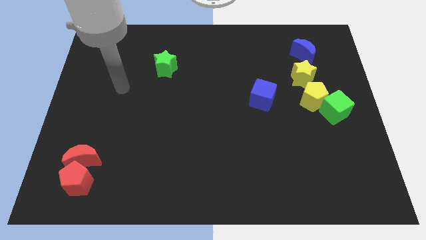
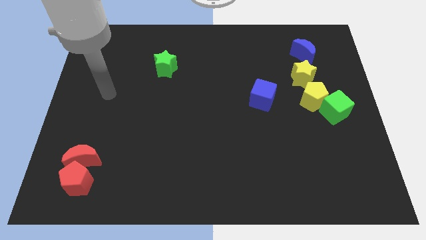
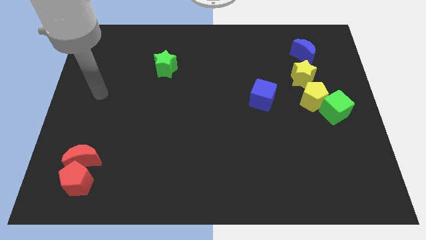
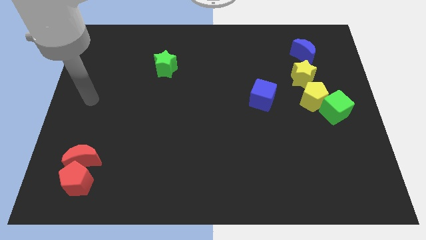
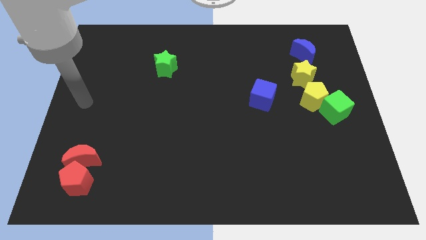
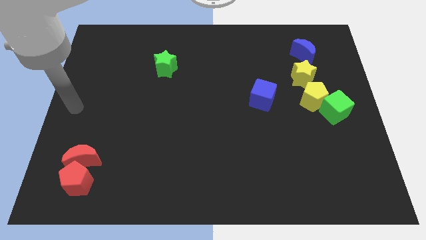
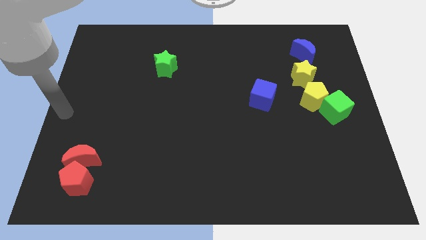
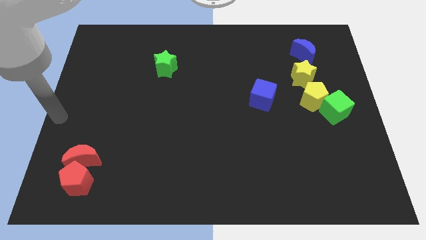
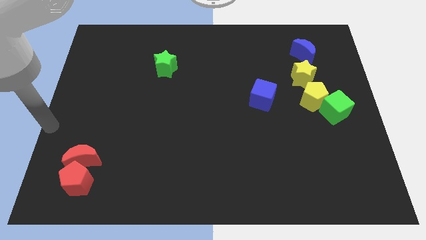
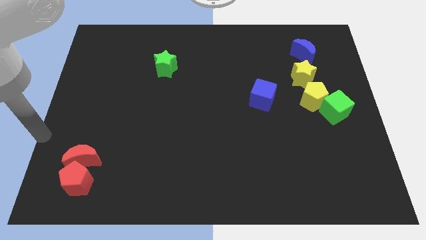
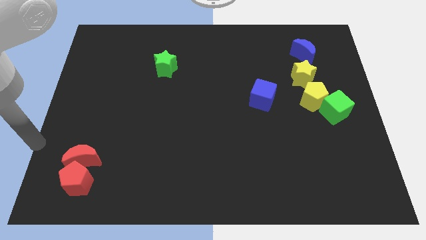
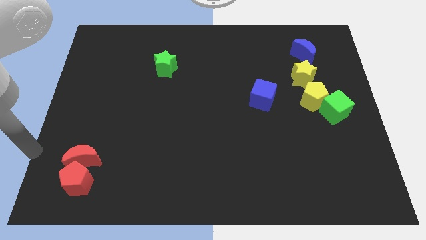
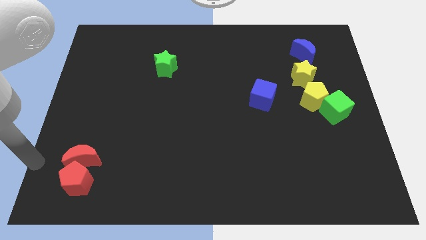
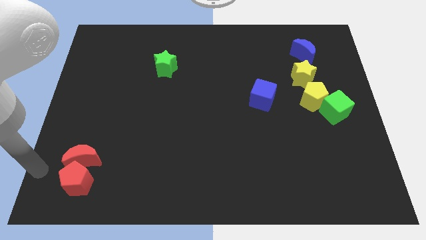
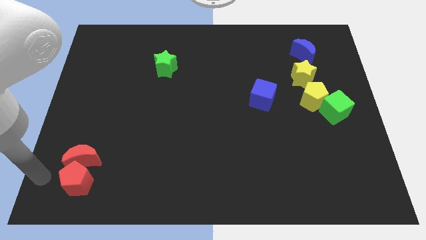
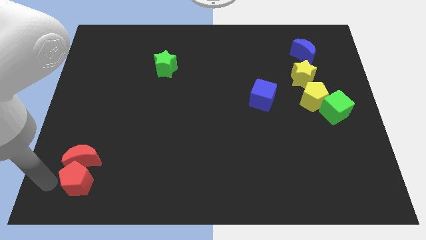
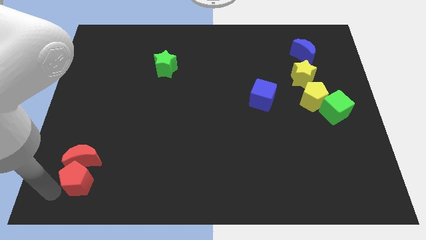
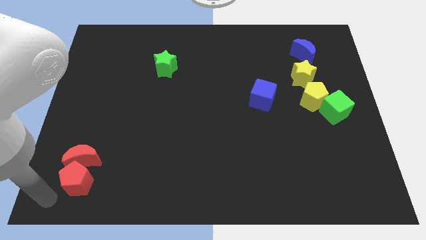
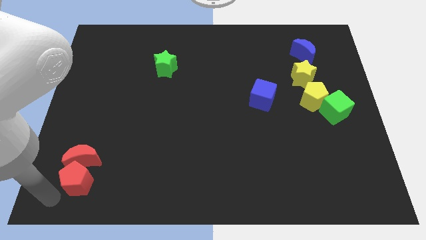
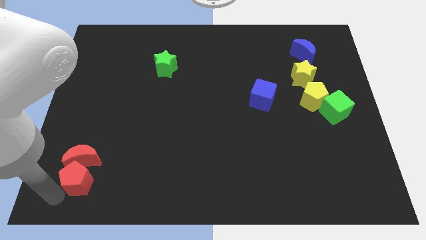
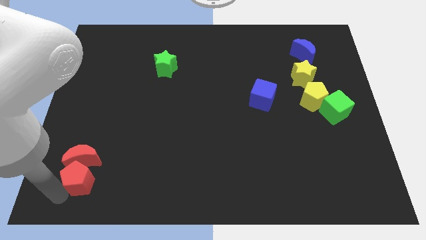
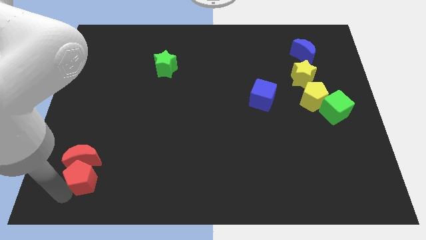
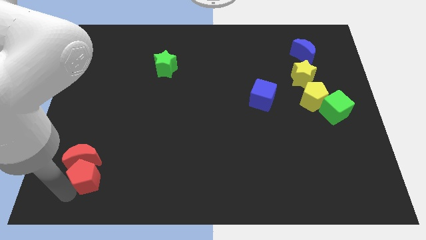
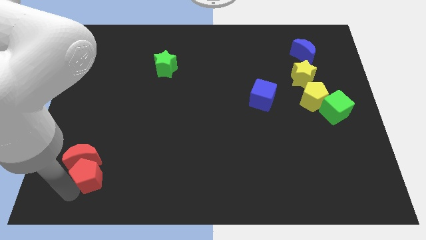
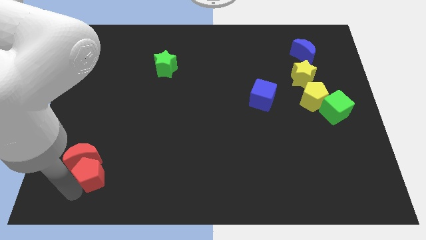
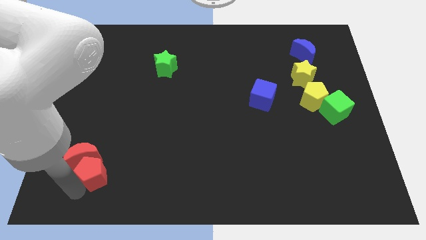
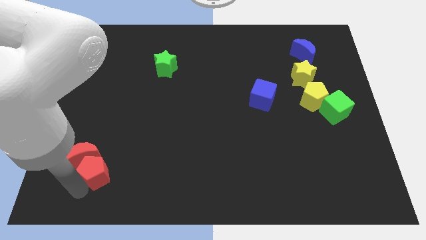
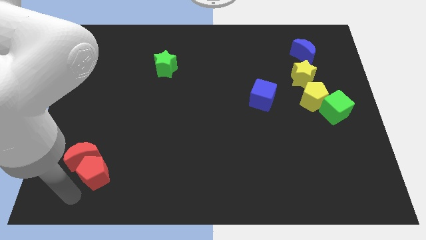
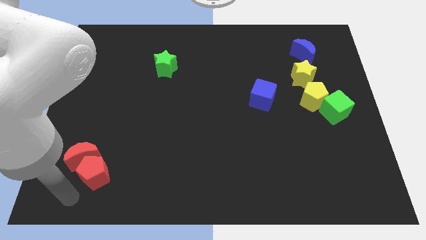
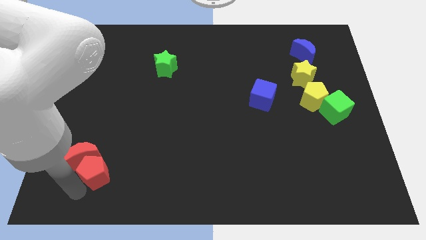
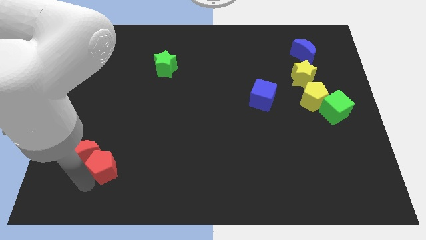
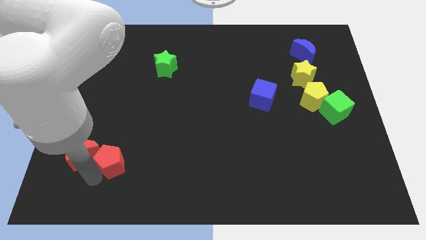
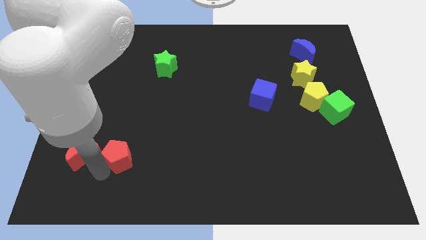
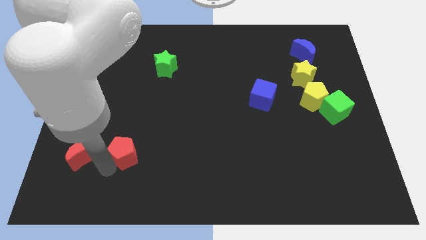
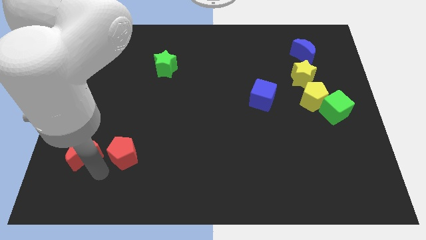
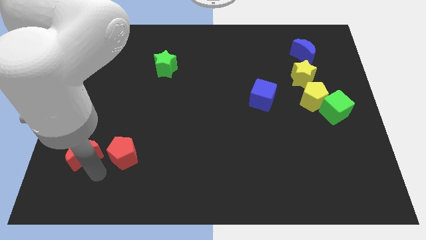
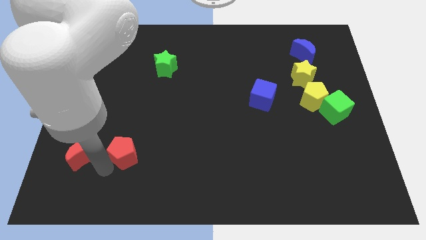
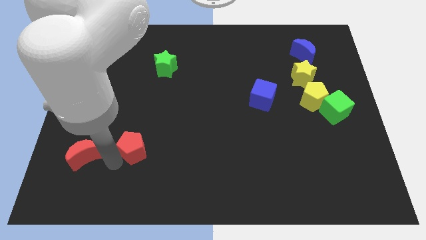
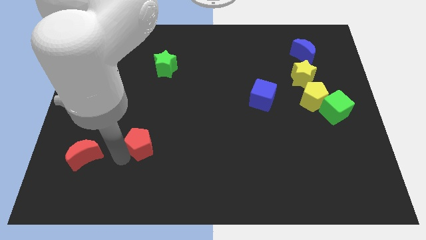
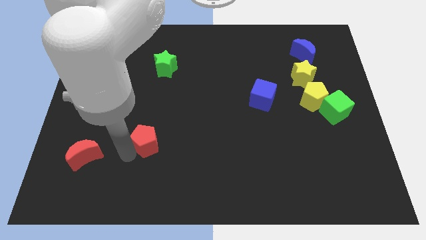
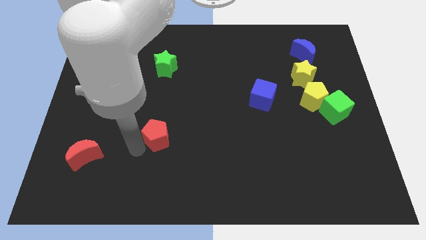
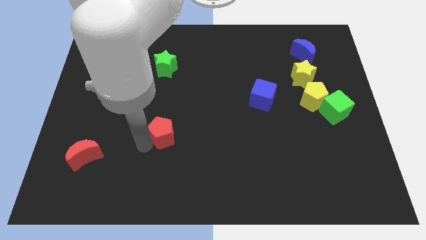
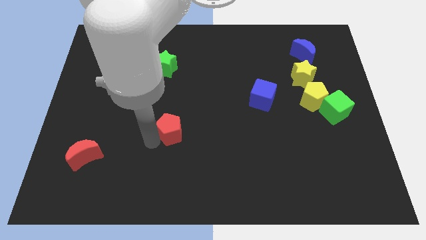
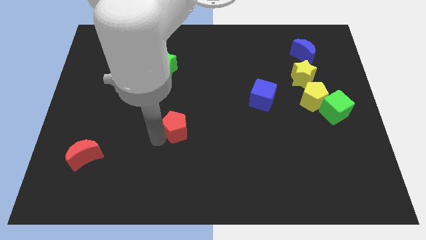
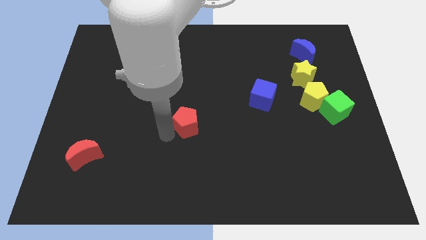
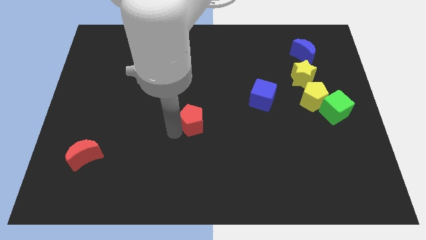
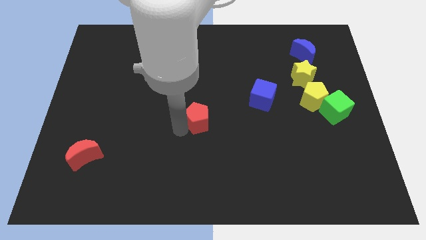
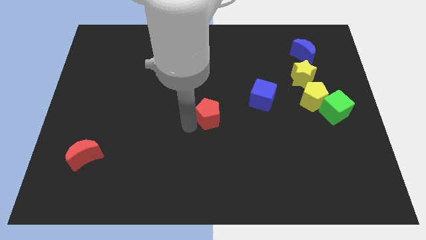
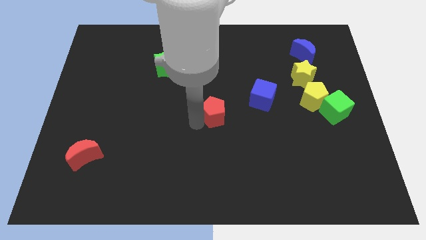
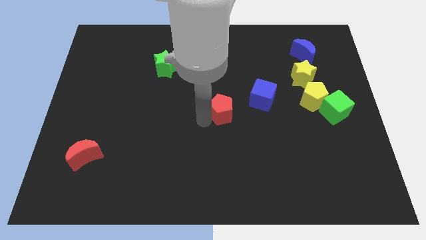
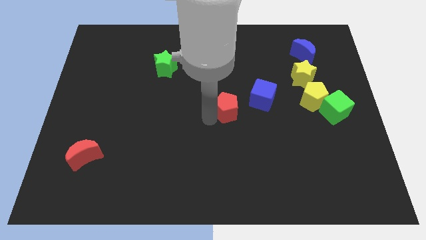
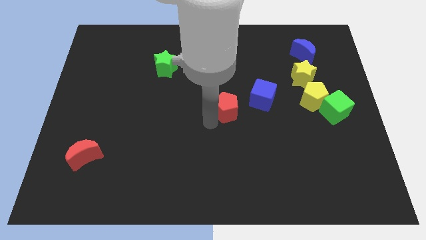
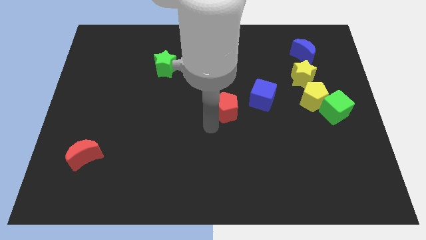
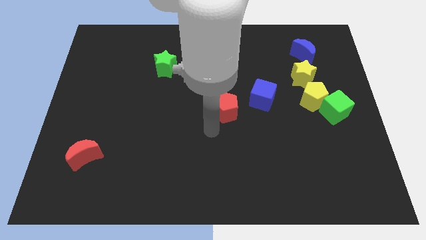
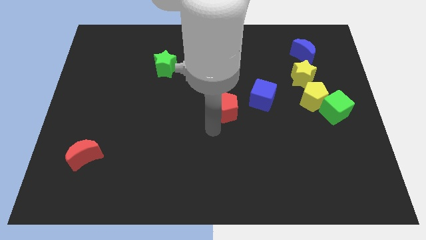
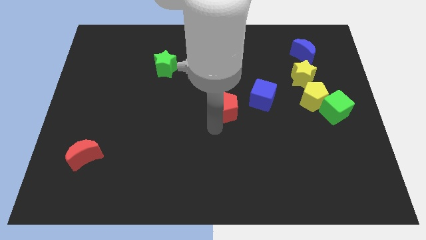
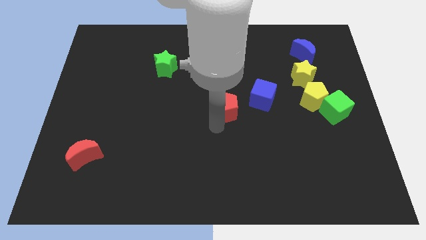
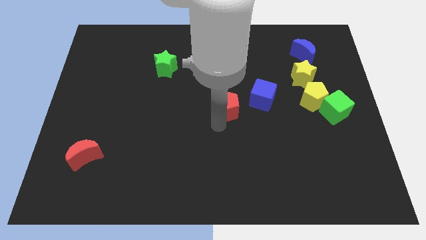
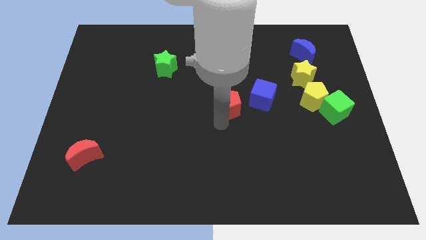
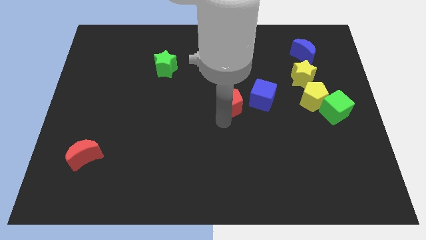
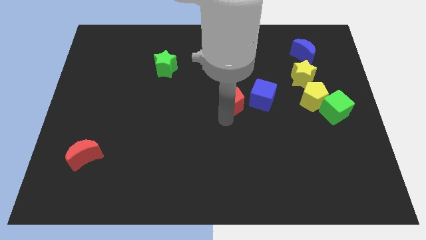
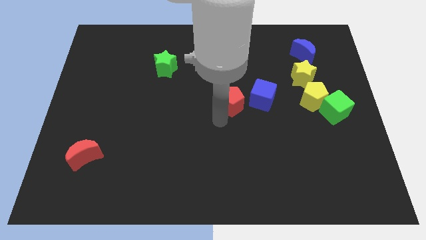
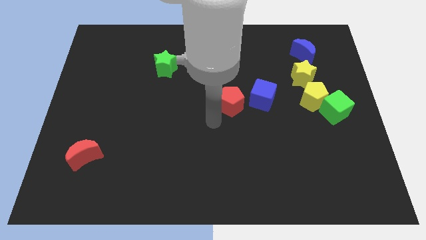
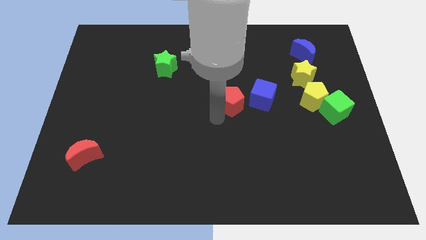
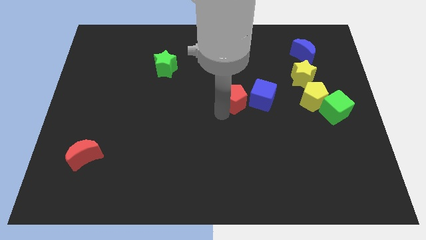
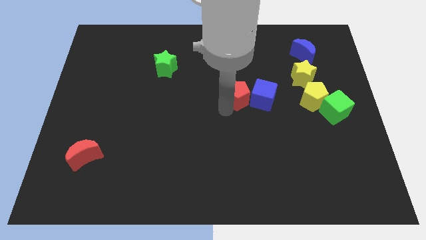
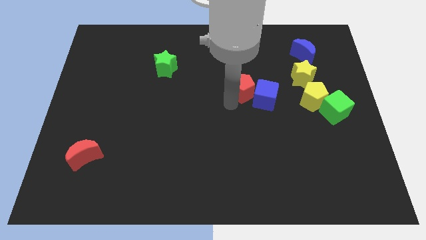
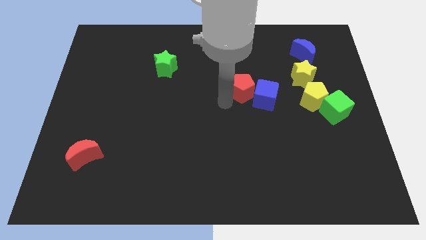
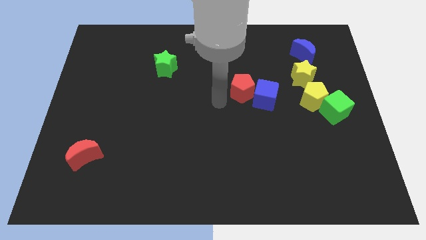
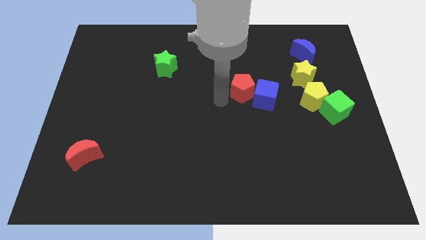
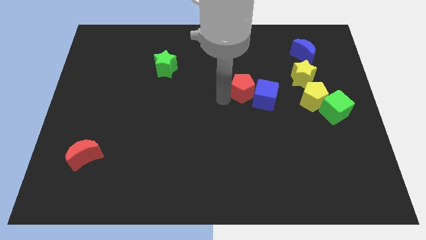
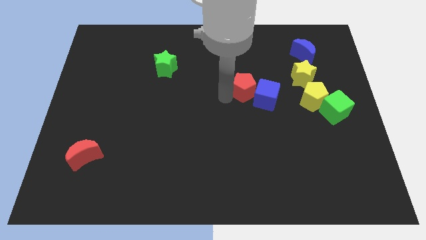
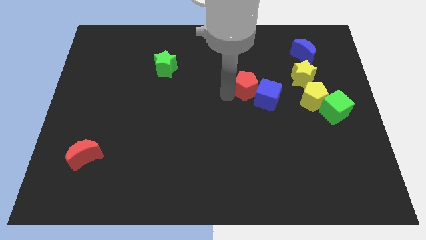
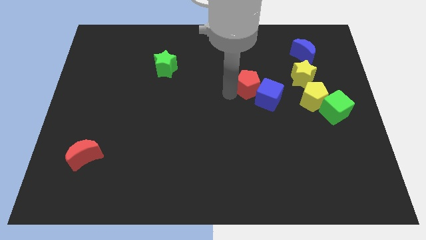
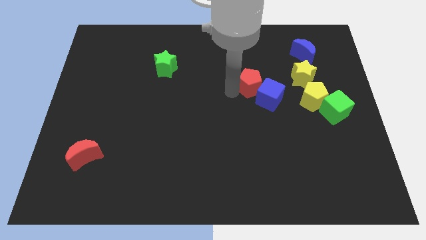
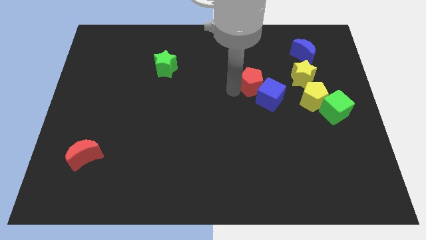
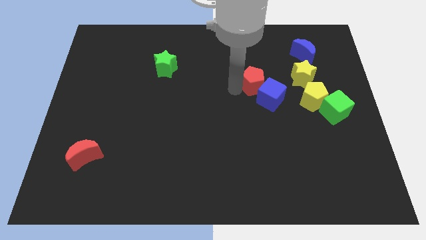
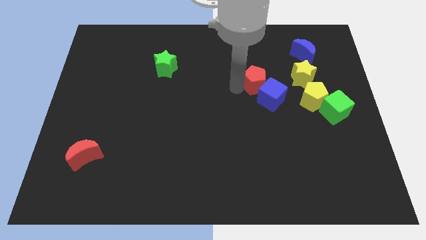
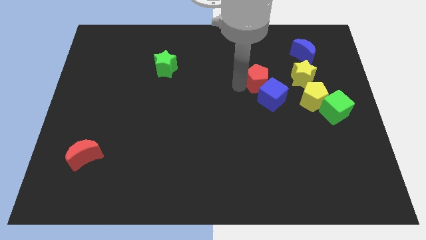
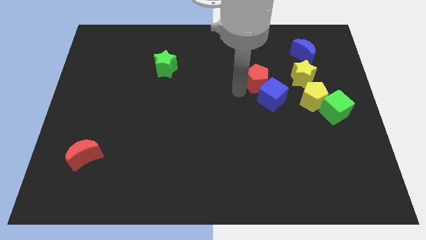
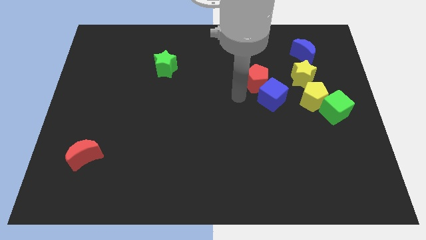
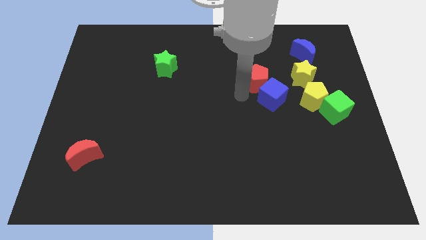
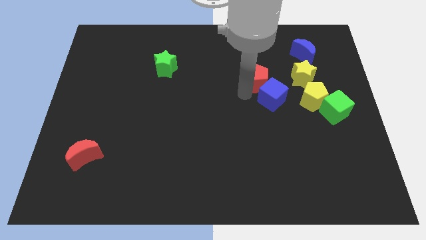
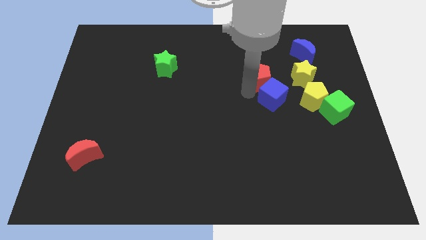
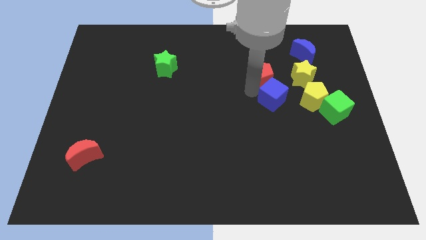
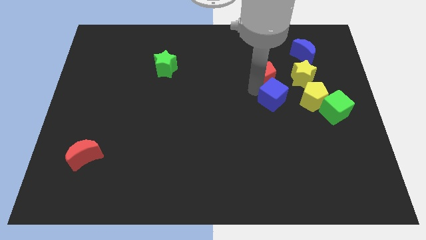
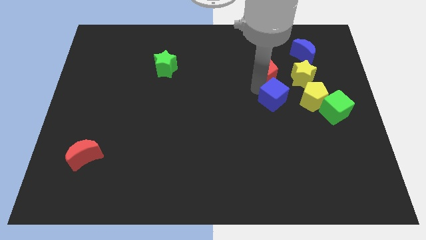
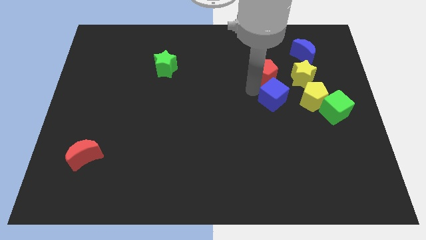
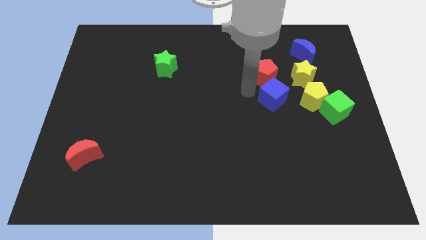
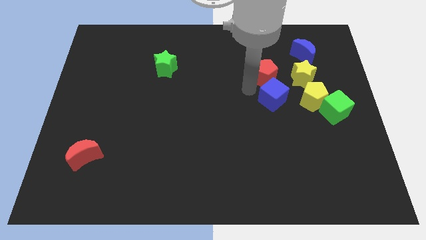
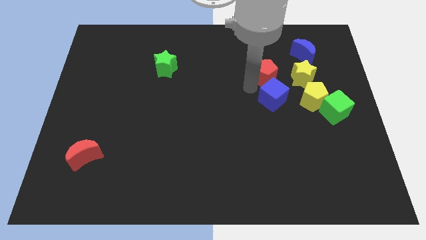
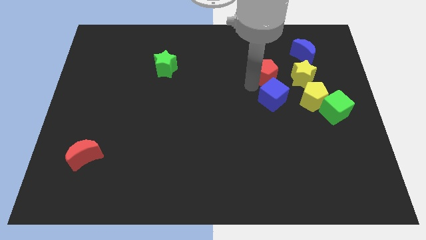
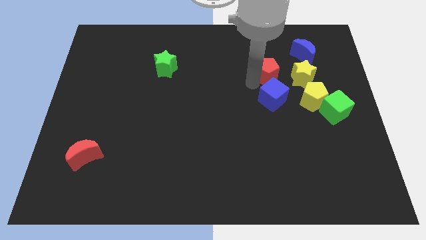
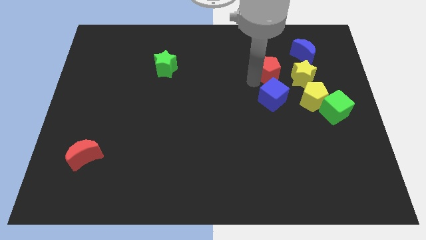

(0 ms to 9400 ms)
push the red pentagon to the top left side of the yellow star
